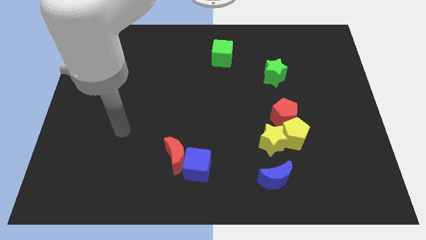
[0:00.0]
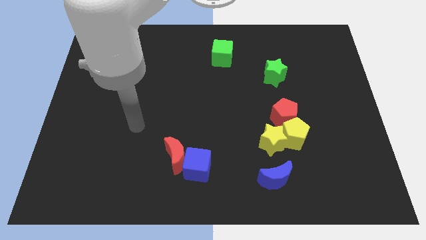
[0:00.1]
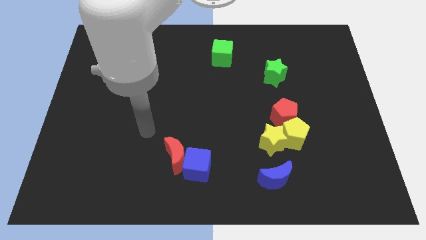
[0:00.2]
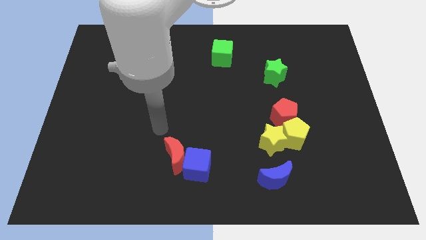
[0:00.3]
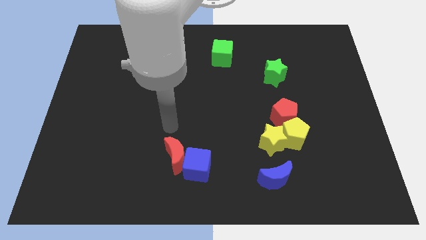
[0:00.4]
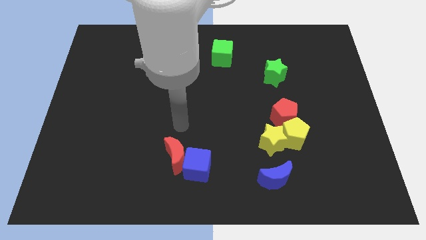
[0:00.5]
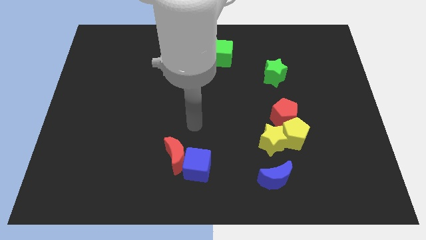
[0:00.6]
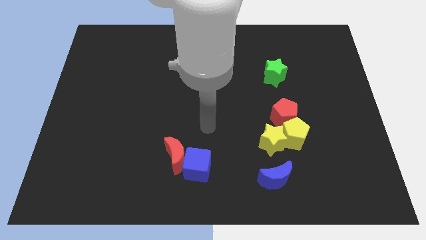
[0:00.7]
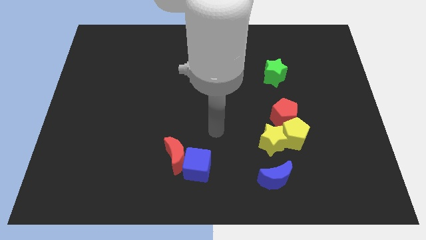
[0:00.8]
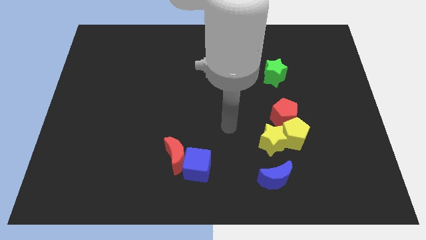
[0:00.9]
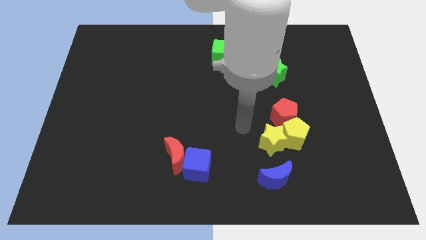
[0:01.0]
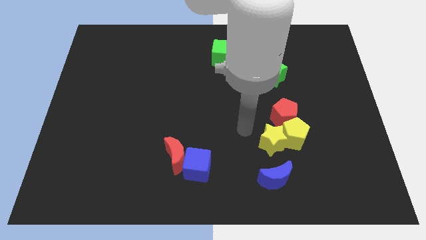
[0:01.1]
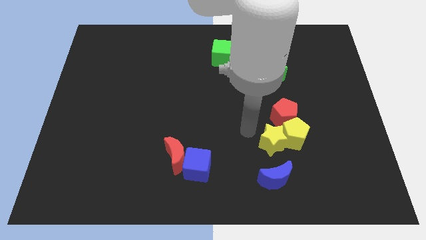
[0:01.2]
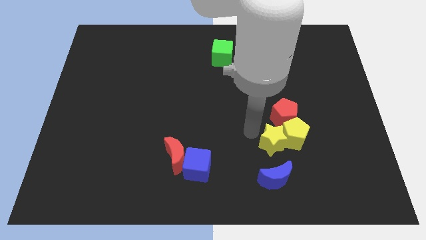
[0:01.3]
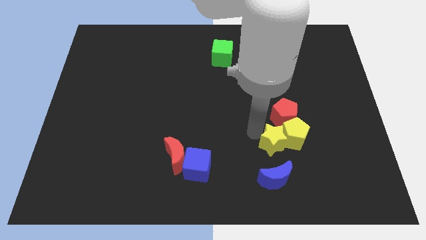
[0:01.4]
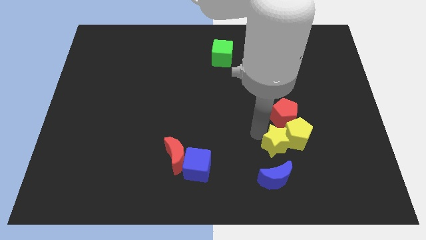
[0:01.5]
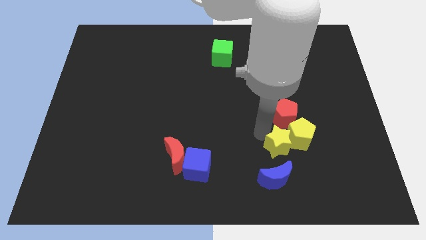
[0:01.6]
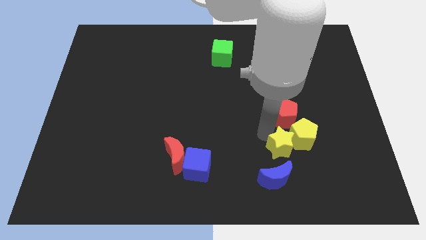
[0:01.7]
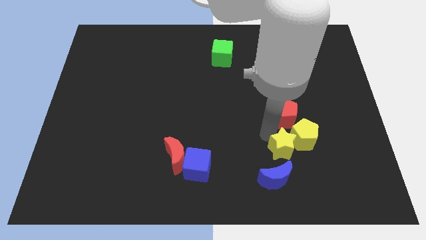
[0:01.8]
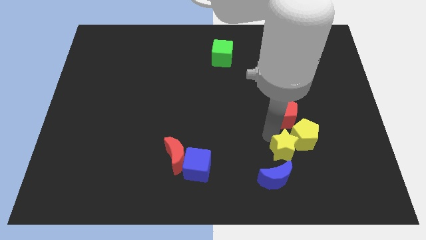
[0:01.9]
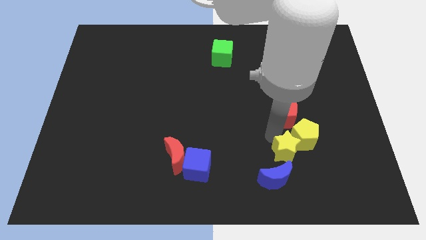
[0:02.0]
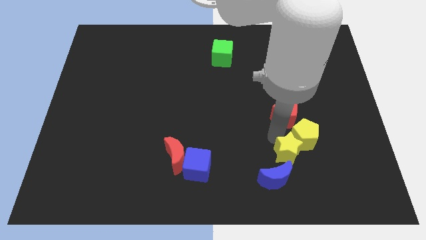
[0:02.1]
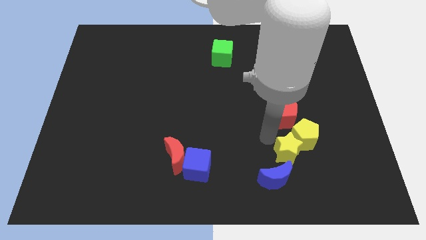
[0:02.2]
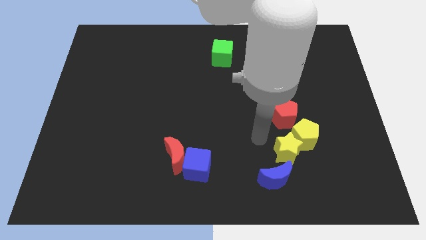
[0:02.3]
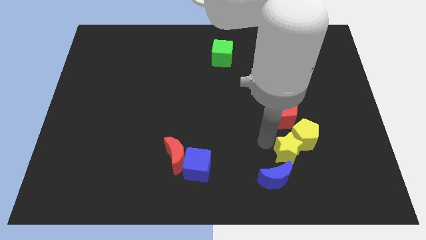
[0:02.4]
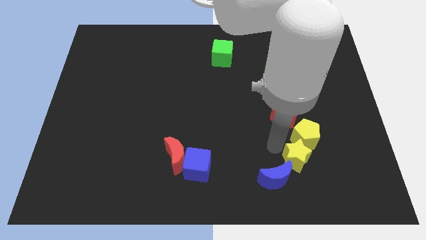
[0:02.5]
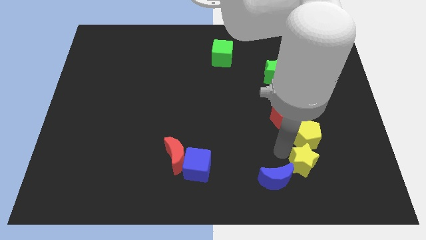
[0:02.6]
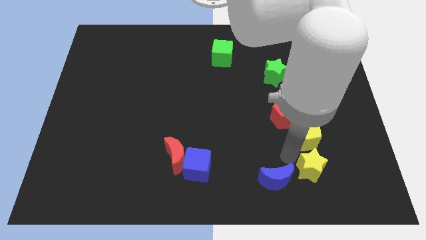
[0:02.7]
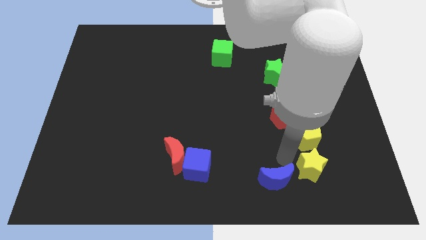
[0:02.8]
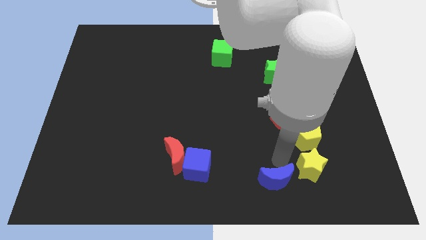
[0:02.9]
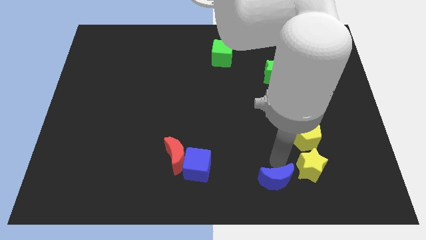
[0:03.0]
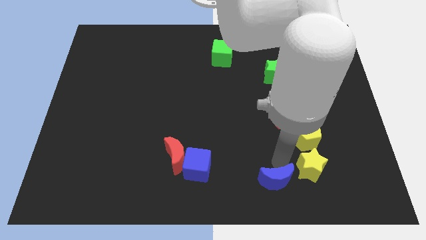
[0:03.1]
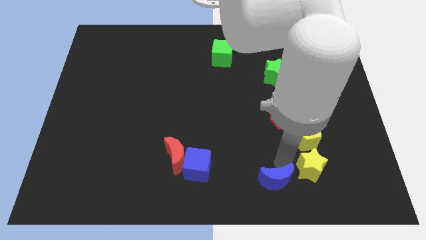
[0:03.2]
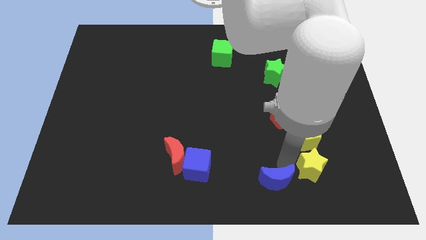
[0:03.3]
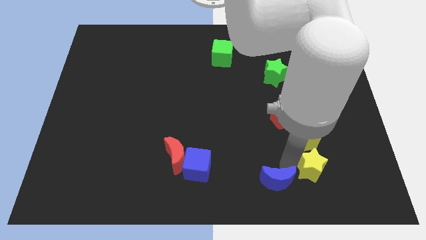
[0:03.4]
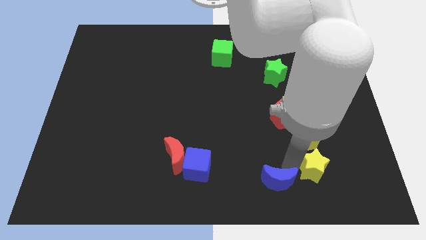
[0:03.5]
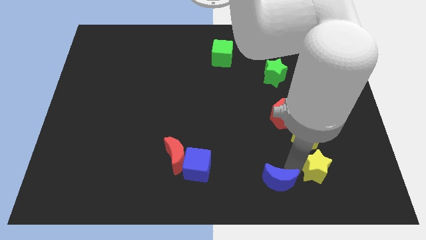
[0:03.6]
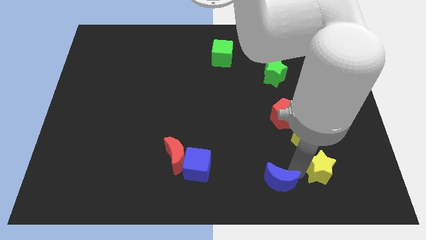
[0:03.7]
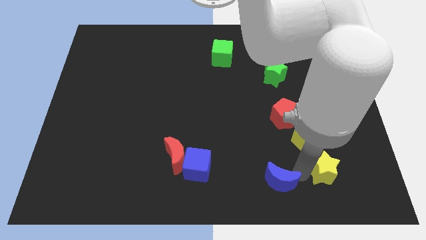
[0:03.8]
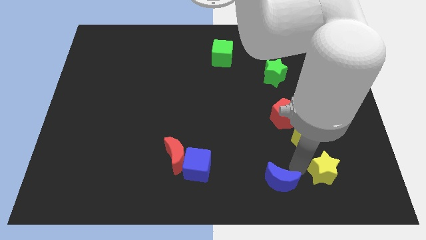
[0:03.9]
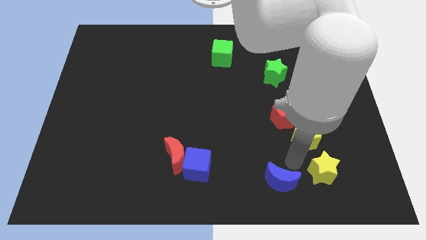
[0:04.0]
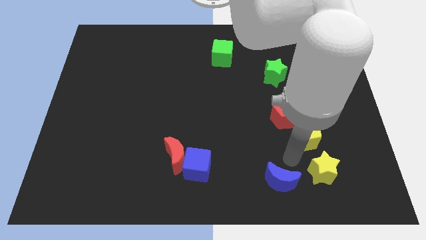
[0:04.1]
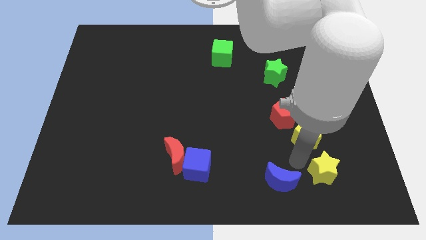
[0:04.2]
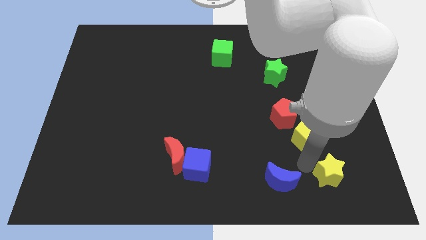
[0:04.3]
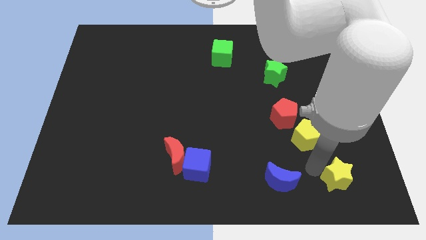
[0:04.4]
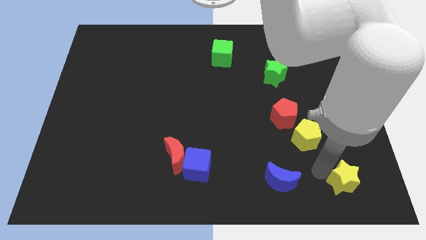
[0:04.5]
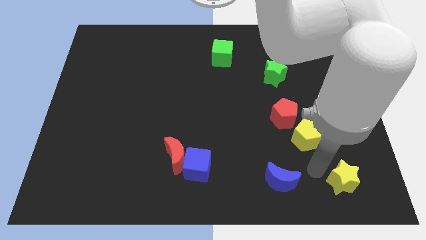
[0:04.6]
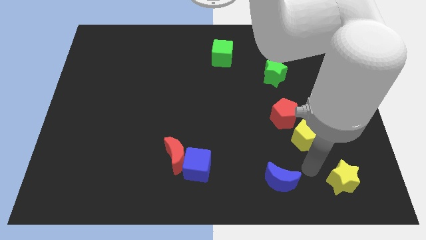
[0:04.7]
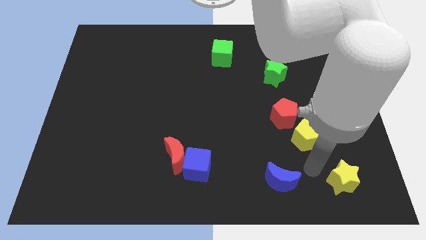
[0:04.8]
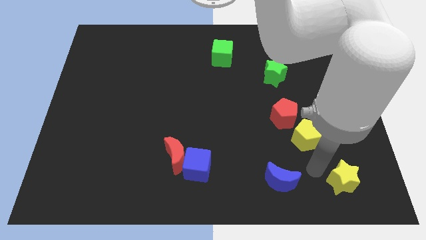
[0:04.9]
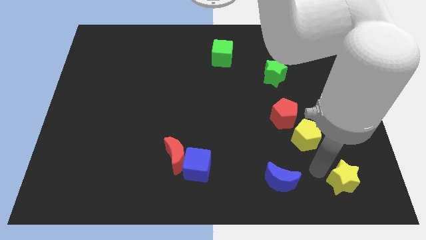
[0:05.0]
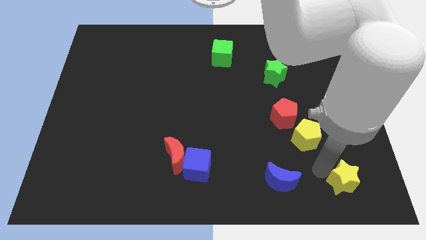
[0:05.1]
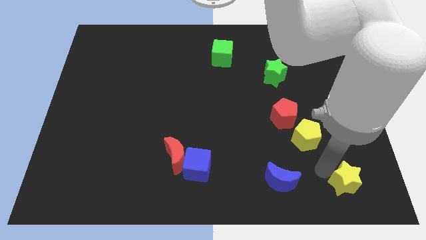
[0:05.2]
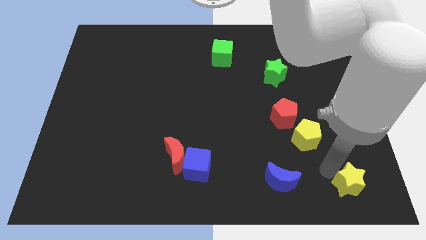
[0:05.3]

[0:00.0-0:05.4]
move the yellow star to the bottom right of the board

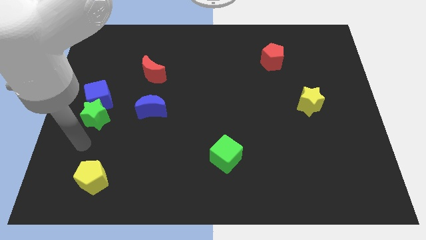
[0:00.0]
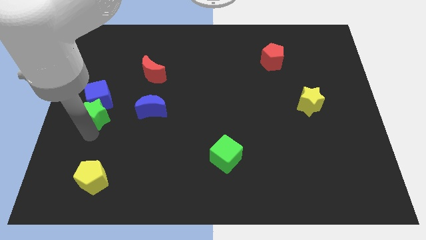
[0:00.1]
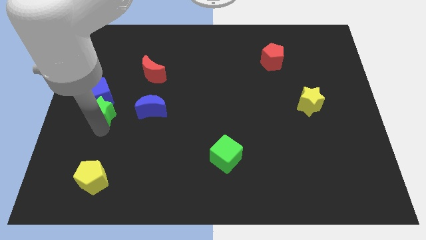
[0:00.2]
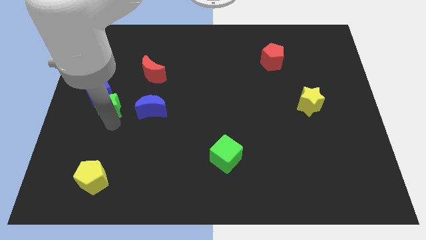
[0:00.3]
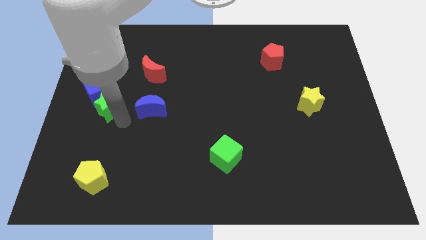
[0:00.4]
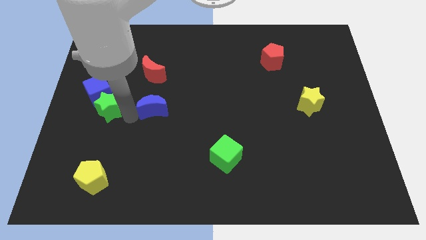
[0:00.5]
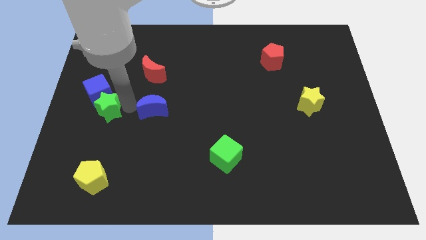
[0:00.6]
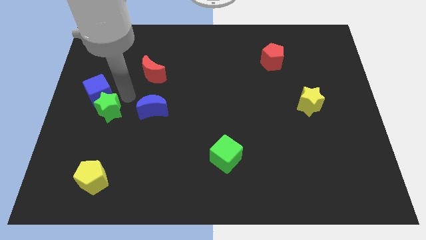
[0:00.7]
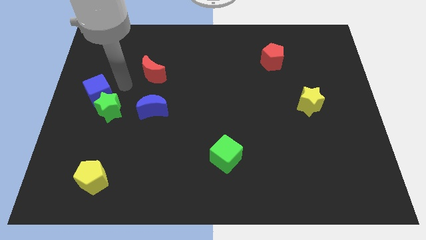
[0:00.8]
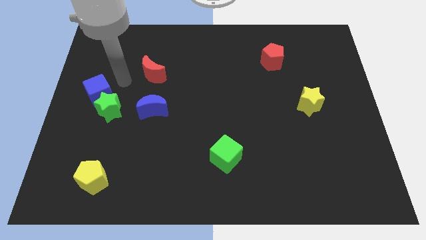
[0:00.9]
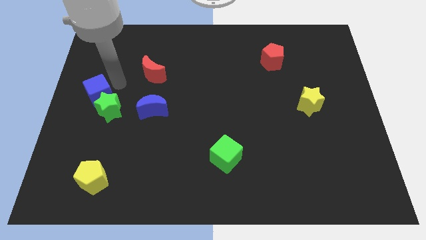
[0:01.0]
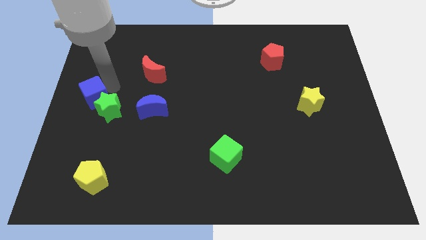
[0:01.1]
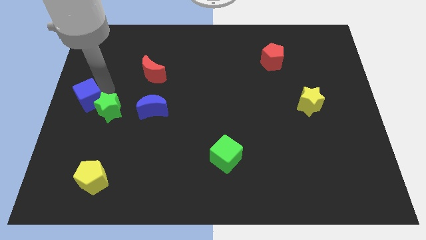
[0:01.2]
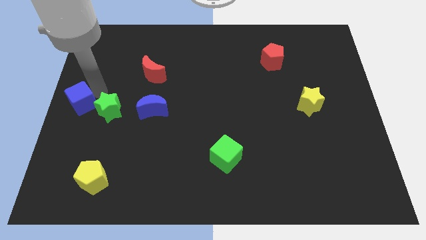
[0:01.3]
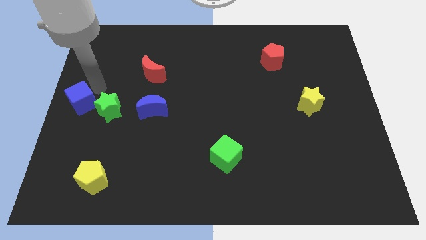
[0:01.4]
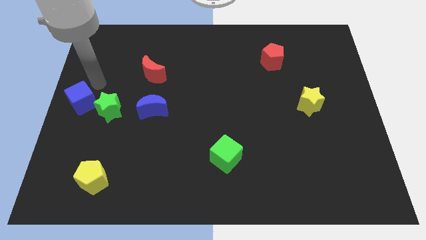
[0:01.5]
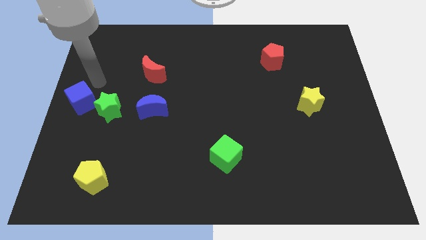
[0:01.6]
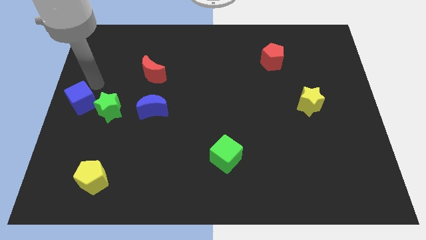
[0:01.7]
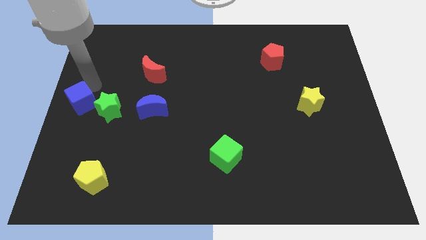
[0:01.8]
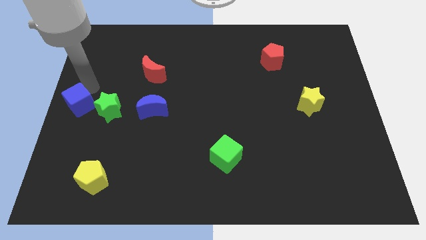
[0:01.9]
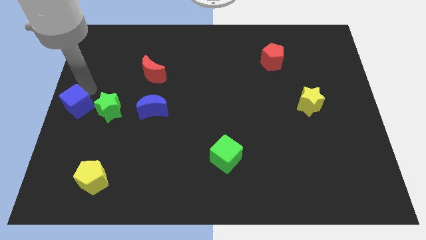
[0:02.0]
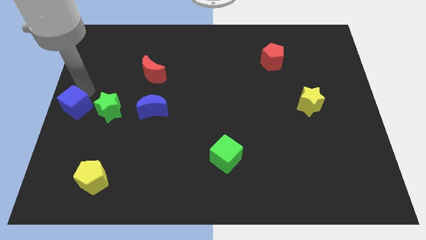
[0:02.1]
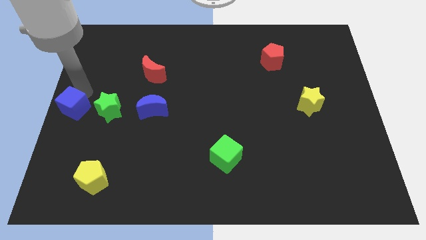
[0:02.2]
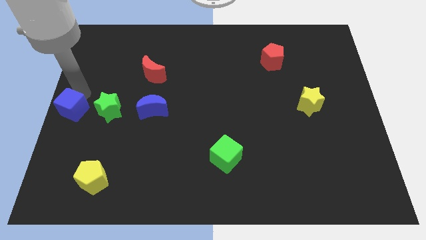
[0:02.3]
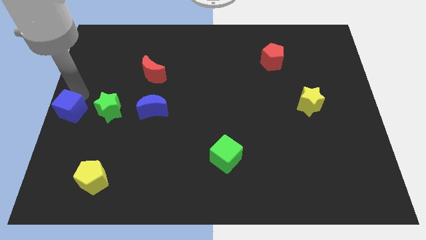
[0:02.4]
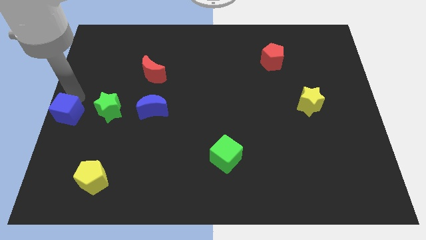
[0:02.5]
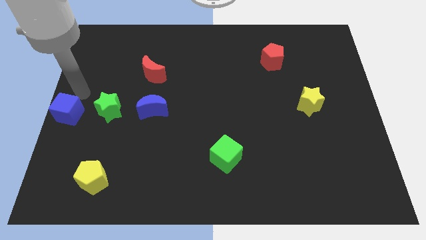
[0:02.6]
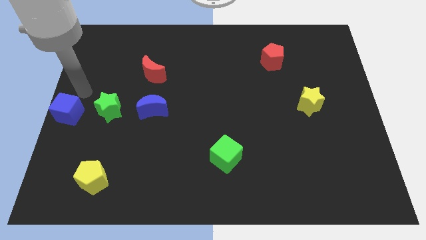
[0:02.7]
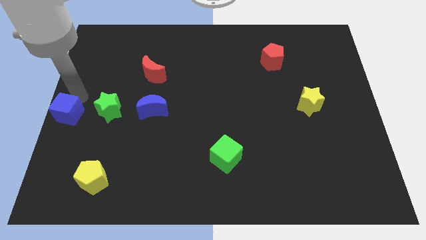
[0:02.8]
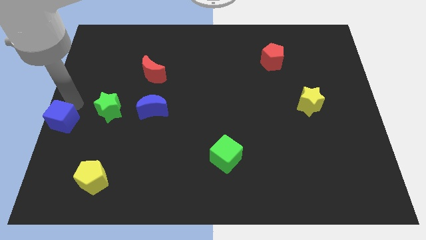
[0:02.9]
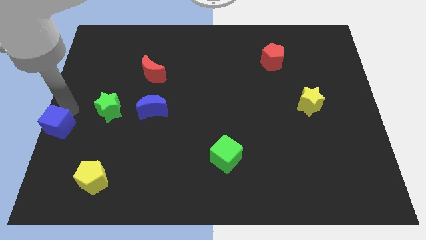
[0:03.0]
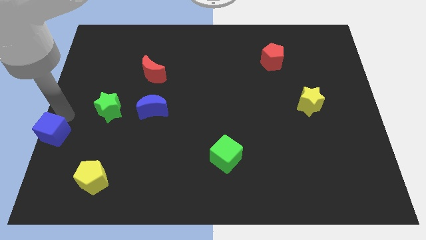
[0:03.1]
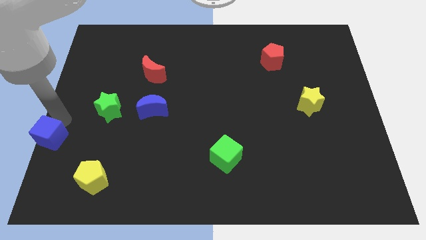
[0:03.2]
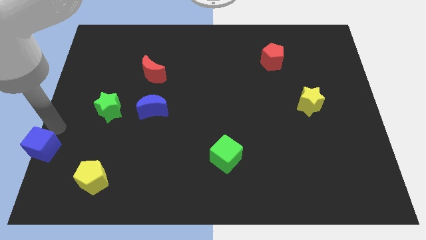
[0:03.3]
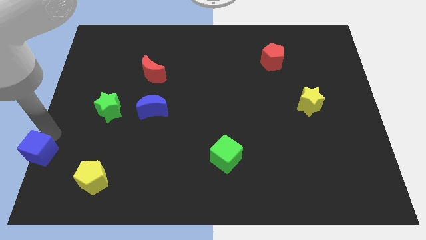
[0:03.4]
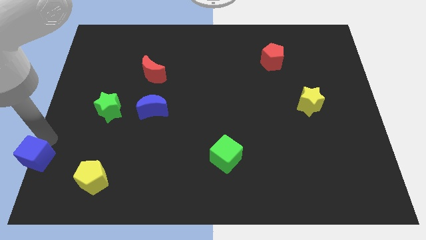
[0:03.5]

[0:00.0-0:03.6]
push the blue cube to the bottom left
